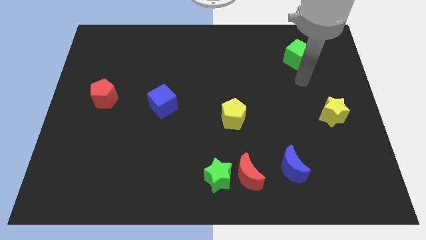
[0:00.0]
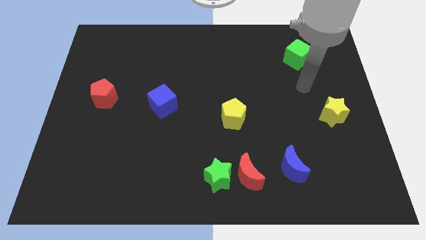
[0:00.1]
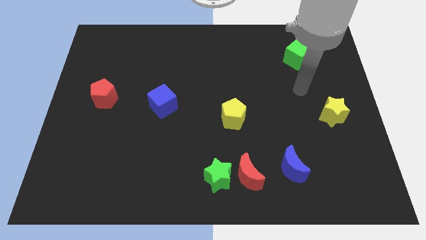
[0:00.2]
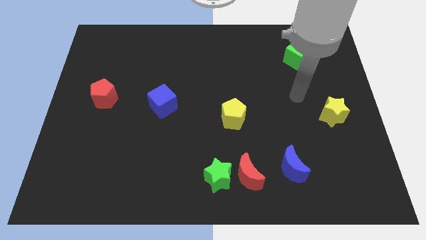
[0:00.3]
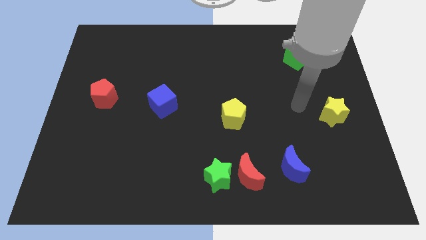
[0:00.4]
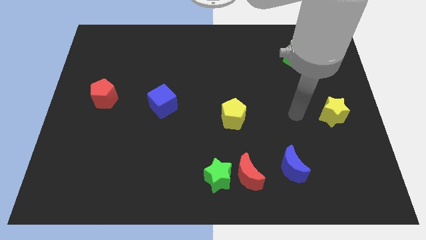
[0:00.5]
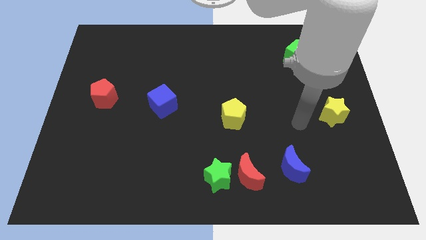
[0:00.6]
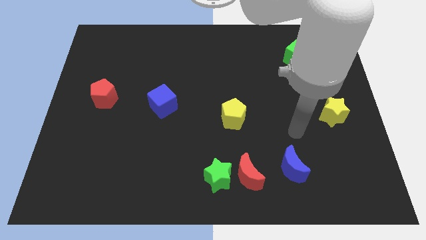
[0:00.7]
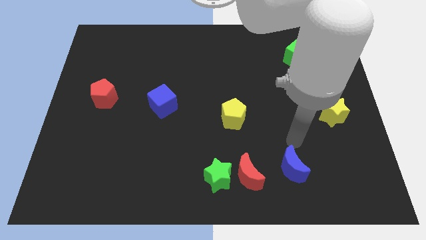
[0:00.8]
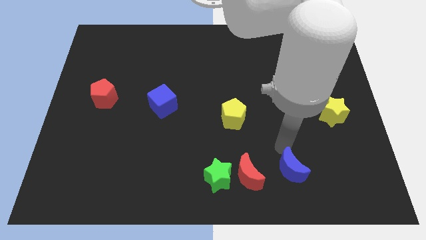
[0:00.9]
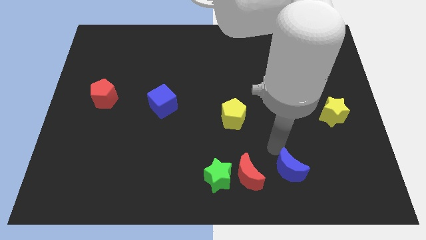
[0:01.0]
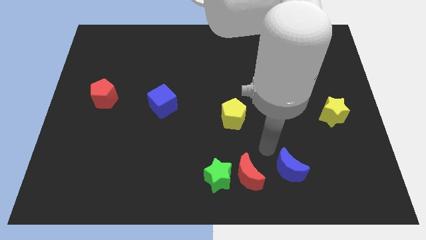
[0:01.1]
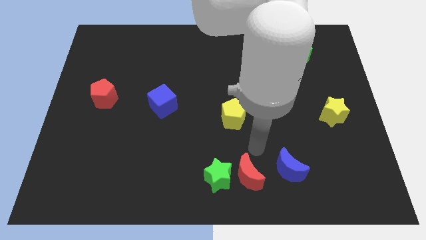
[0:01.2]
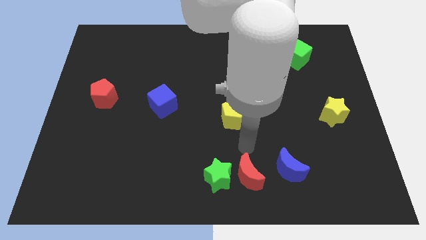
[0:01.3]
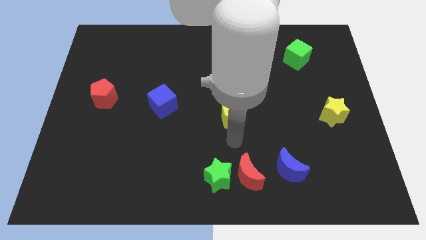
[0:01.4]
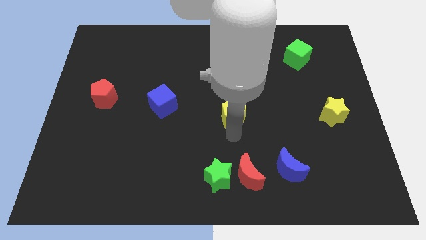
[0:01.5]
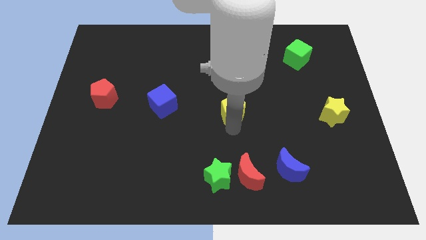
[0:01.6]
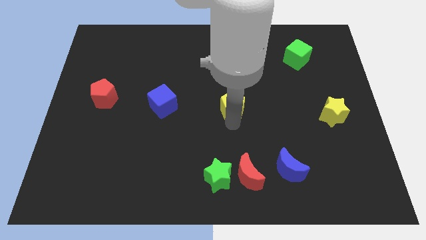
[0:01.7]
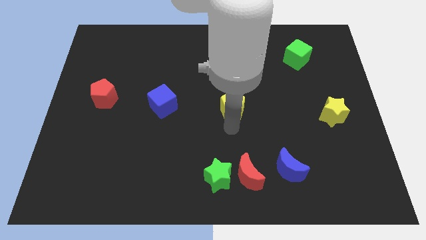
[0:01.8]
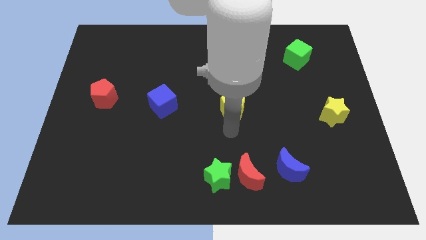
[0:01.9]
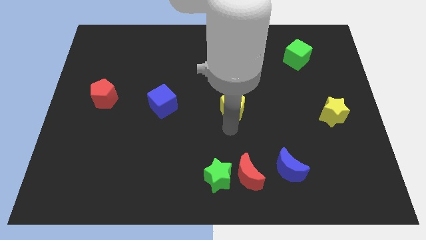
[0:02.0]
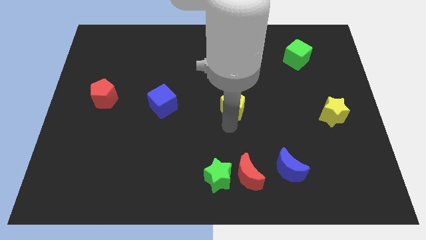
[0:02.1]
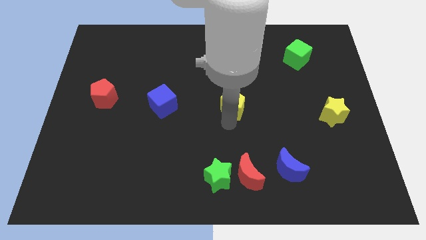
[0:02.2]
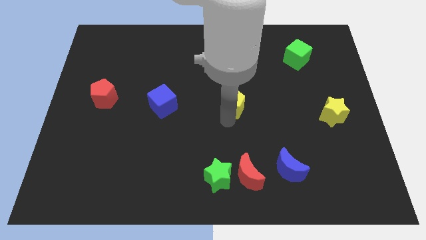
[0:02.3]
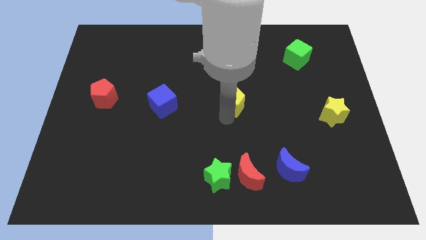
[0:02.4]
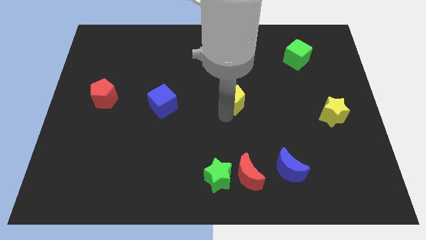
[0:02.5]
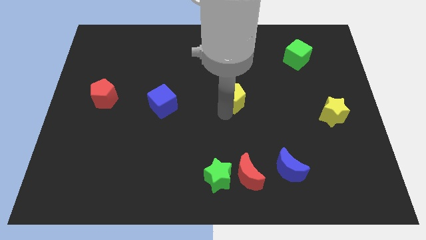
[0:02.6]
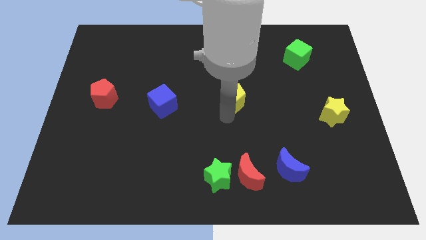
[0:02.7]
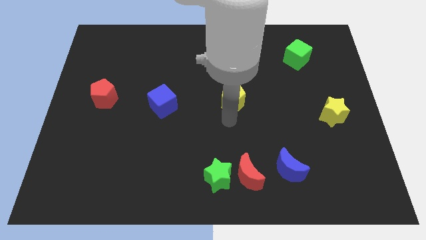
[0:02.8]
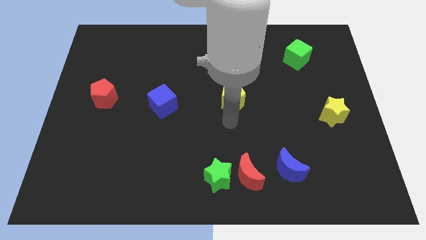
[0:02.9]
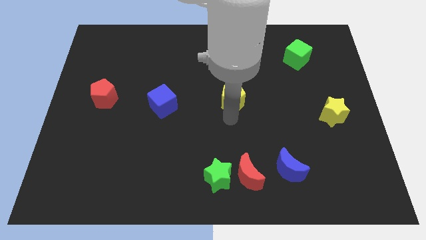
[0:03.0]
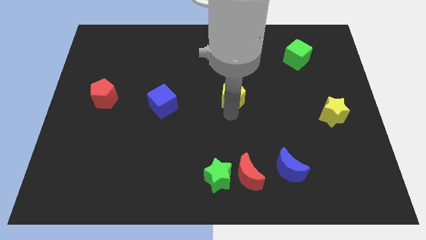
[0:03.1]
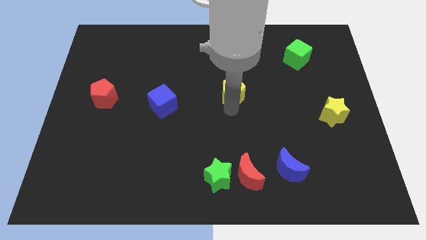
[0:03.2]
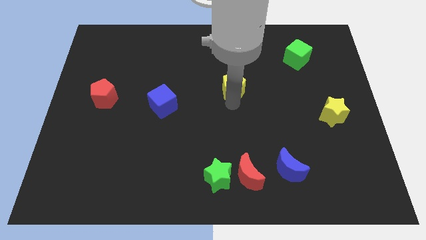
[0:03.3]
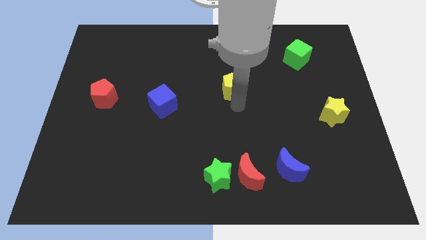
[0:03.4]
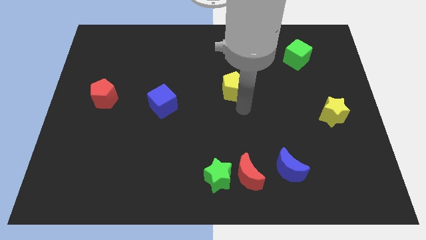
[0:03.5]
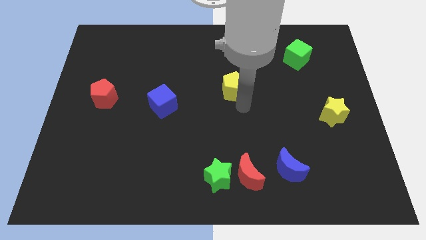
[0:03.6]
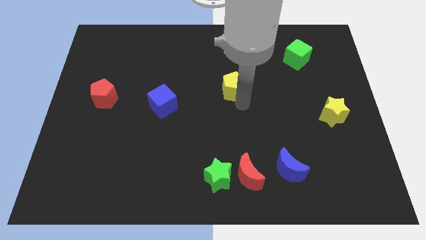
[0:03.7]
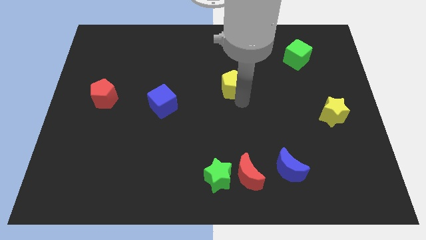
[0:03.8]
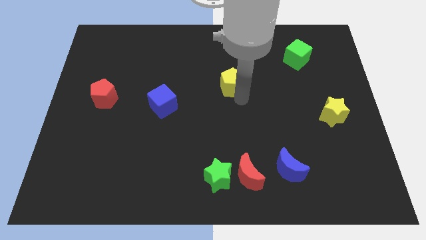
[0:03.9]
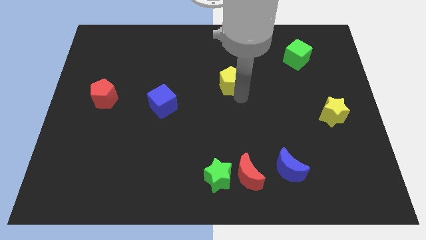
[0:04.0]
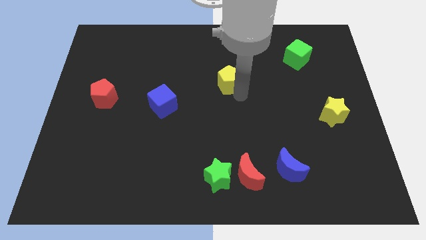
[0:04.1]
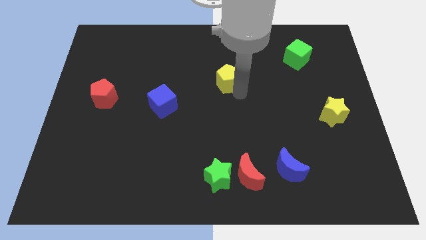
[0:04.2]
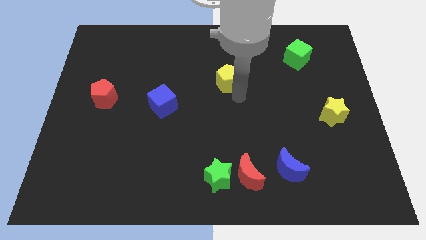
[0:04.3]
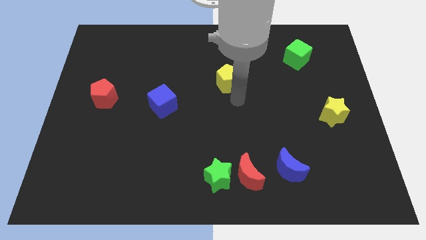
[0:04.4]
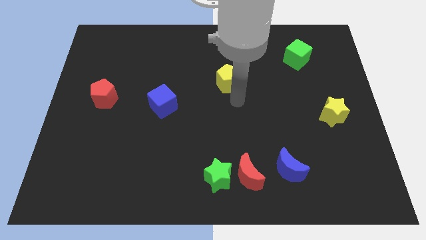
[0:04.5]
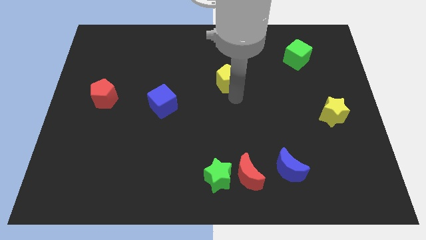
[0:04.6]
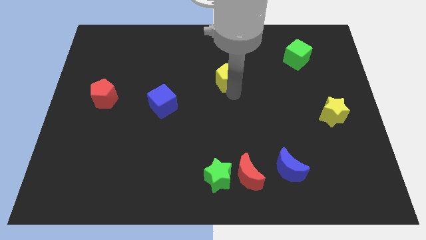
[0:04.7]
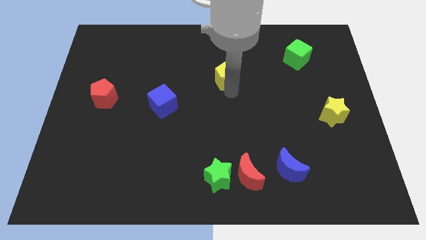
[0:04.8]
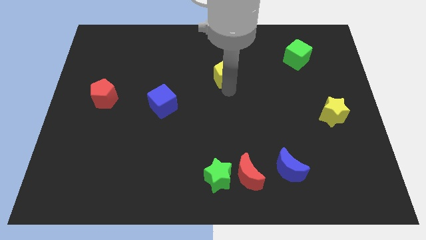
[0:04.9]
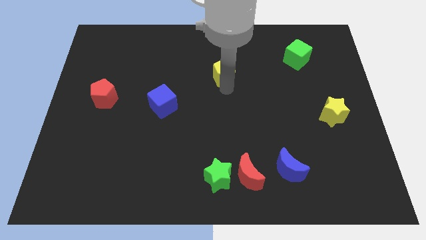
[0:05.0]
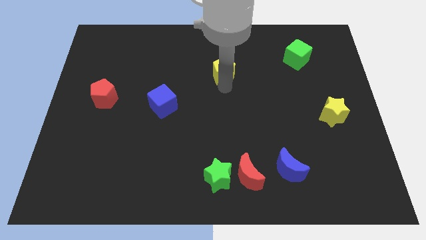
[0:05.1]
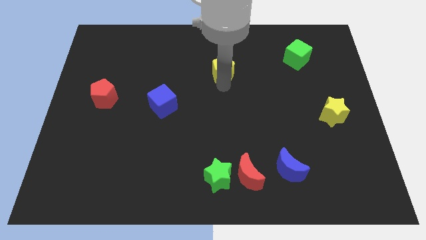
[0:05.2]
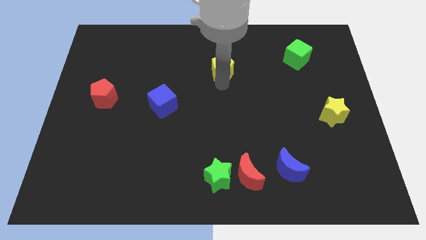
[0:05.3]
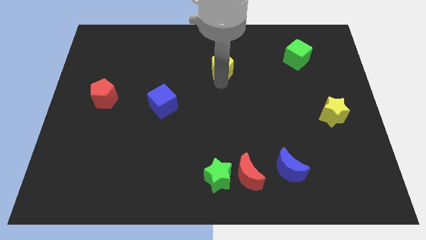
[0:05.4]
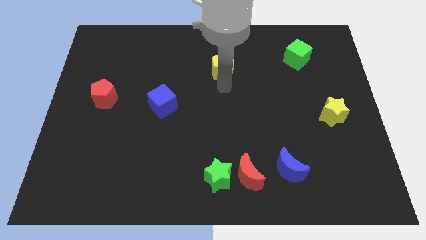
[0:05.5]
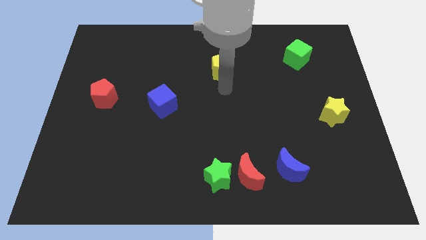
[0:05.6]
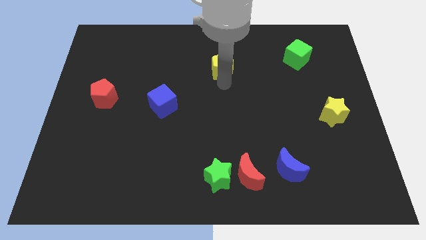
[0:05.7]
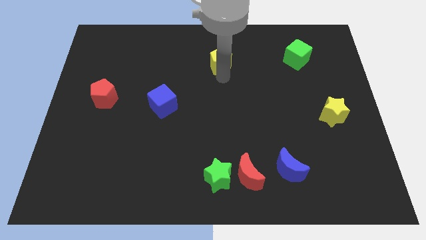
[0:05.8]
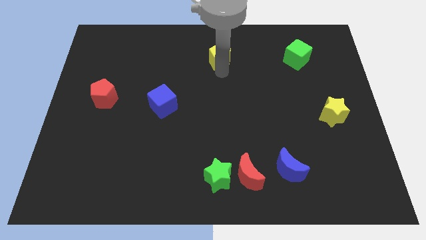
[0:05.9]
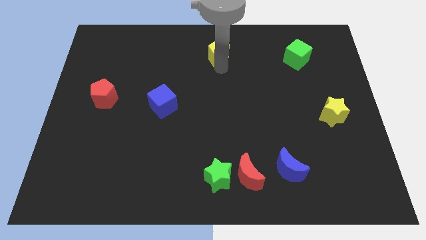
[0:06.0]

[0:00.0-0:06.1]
put the yellow pentagon to the top

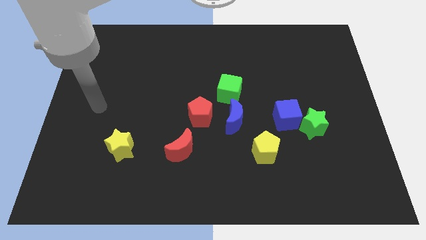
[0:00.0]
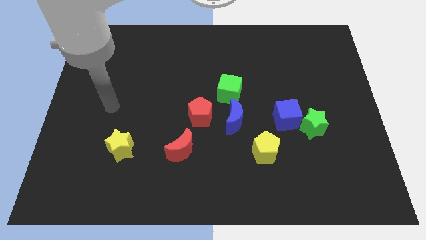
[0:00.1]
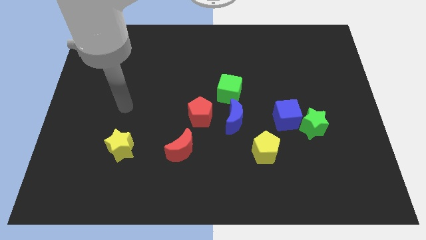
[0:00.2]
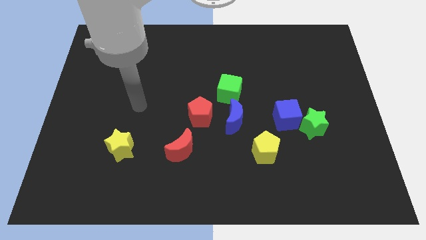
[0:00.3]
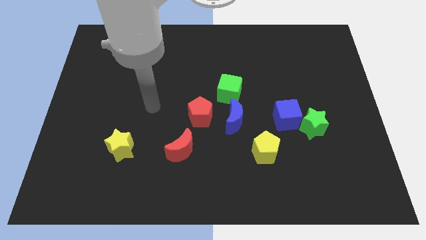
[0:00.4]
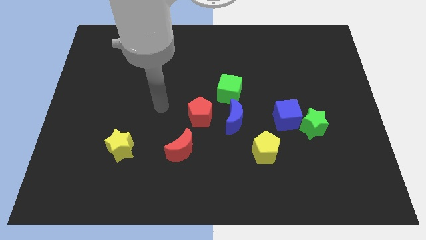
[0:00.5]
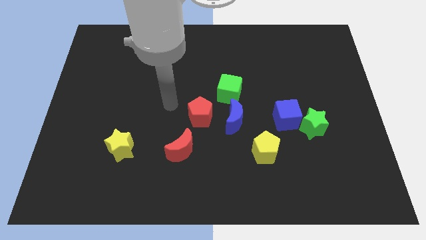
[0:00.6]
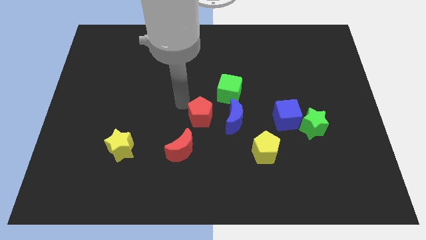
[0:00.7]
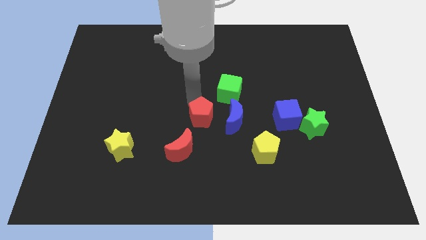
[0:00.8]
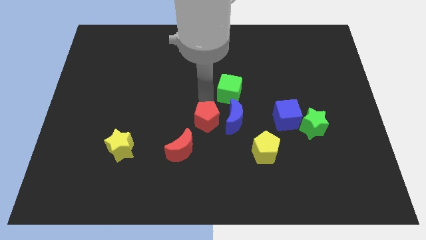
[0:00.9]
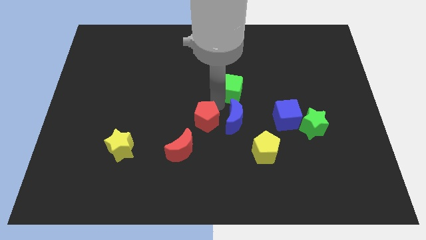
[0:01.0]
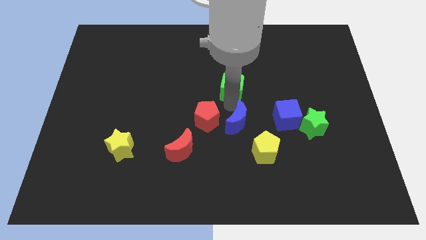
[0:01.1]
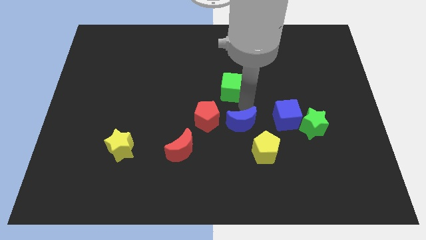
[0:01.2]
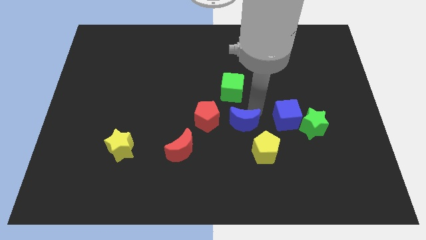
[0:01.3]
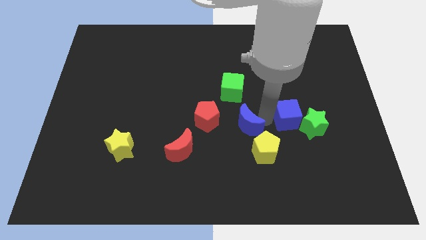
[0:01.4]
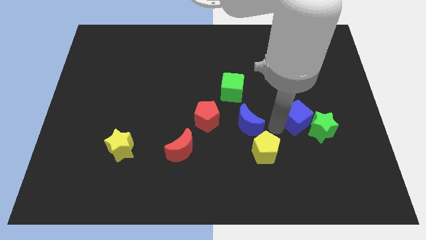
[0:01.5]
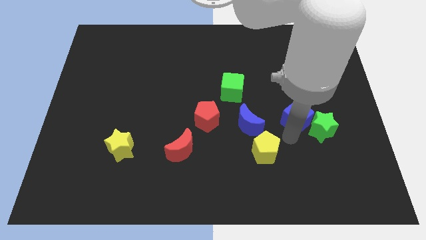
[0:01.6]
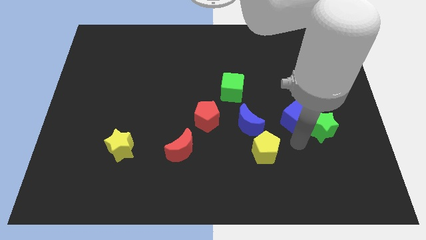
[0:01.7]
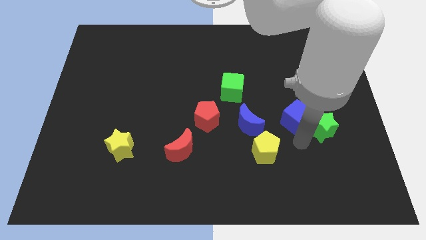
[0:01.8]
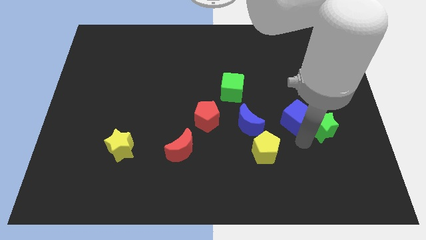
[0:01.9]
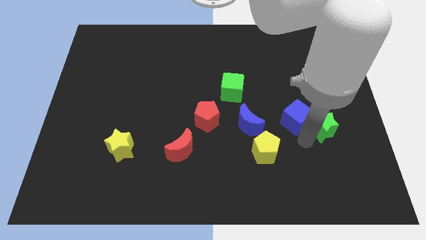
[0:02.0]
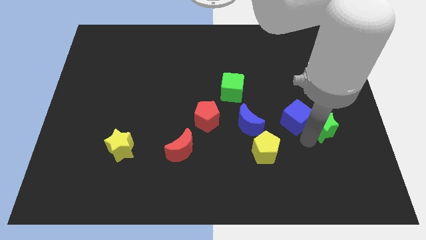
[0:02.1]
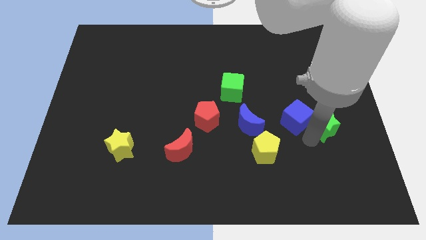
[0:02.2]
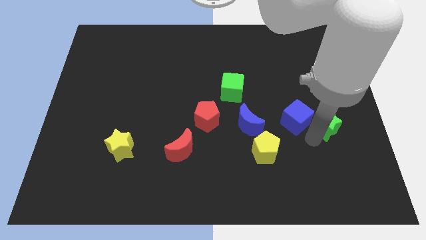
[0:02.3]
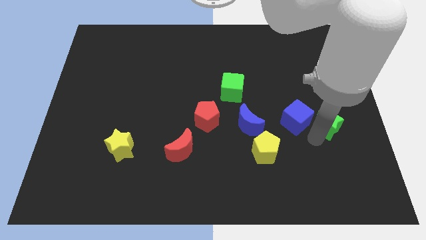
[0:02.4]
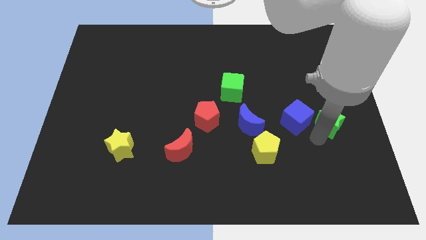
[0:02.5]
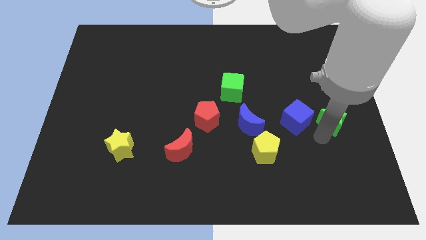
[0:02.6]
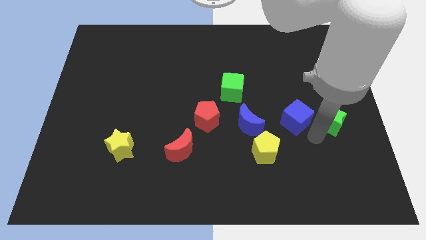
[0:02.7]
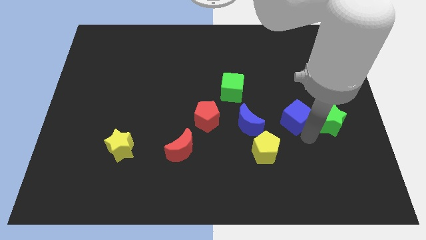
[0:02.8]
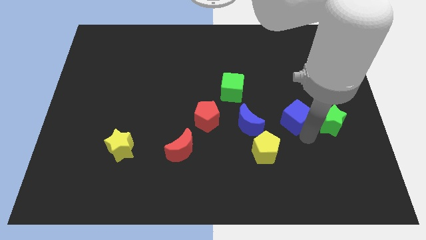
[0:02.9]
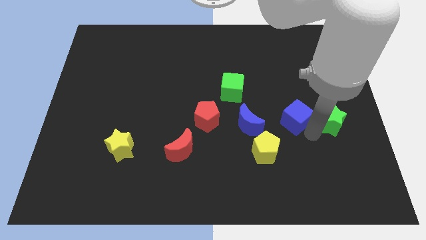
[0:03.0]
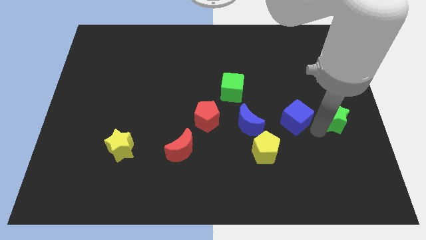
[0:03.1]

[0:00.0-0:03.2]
push the green star to the right side
